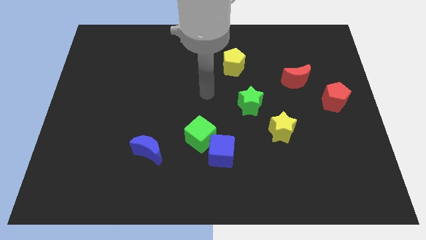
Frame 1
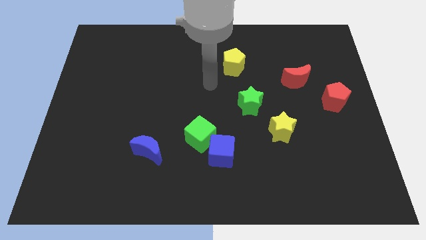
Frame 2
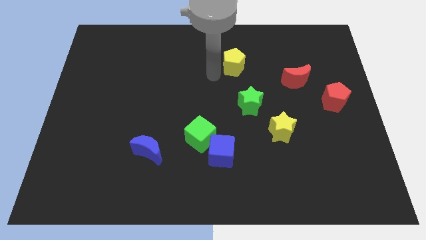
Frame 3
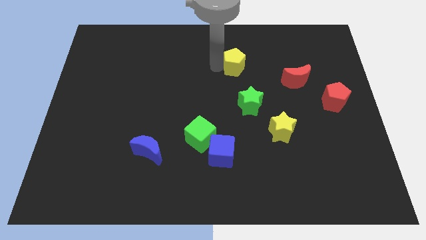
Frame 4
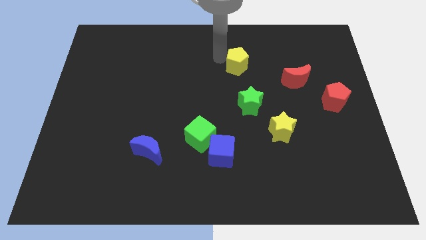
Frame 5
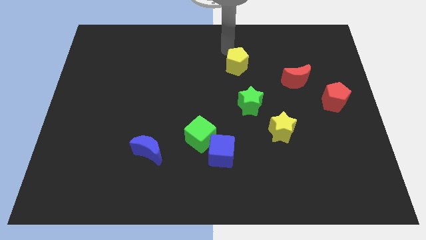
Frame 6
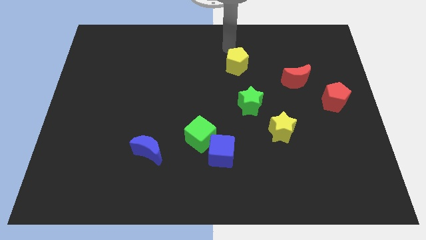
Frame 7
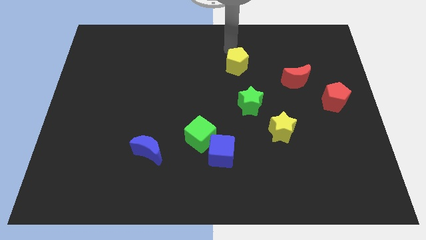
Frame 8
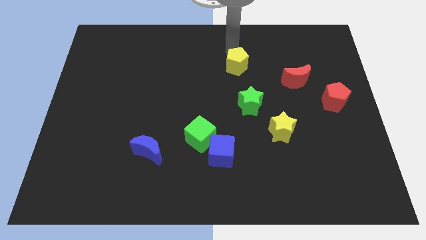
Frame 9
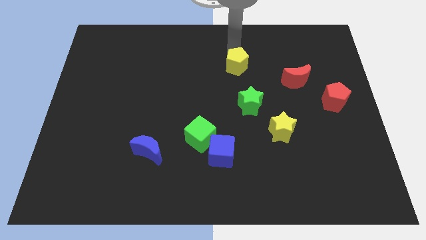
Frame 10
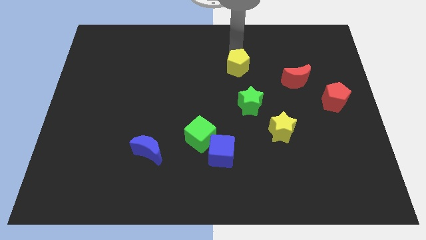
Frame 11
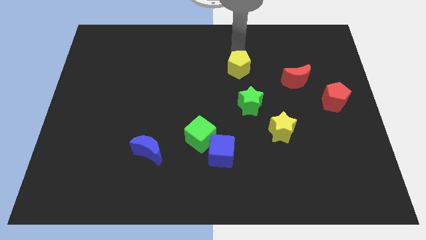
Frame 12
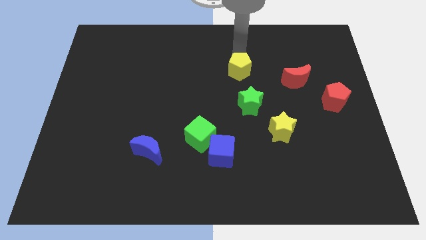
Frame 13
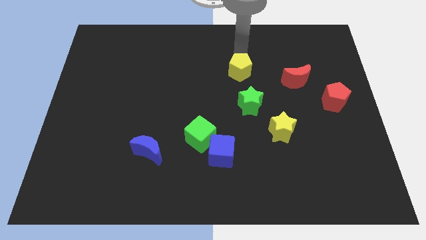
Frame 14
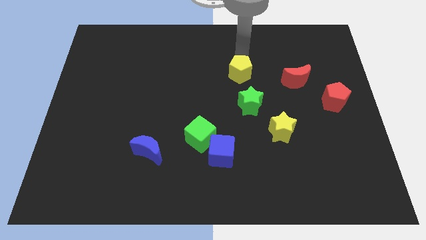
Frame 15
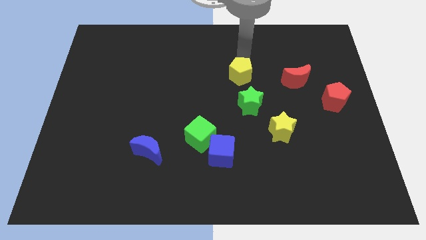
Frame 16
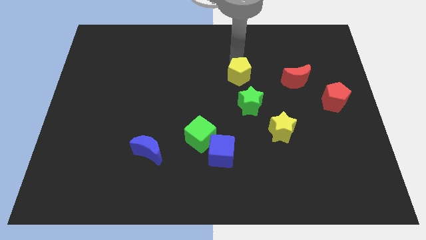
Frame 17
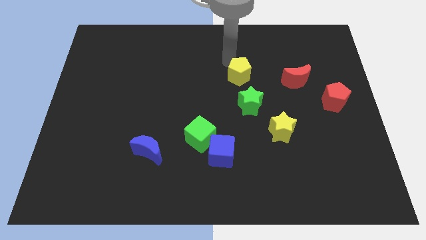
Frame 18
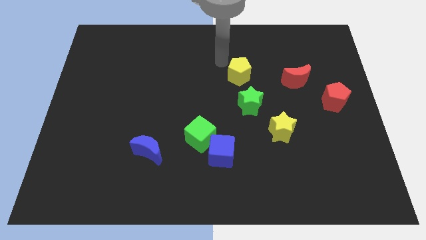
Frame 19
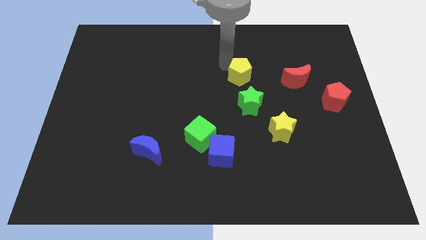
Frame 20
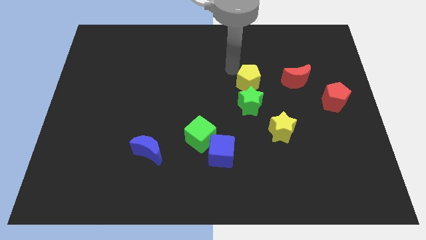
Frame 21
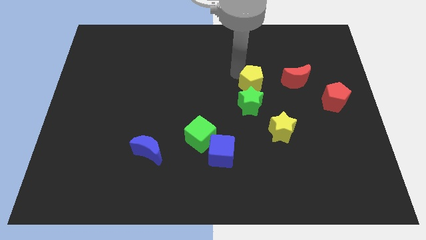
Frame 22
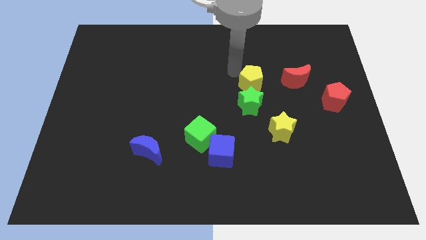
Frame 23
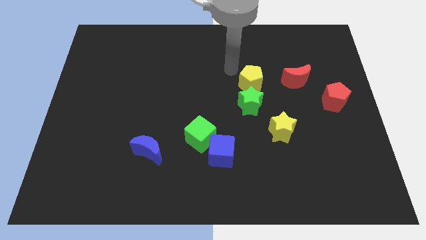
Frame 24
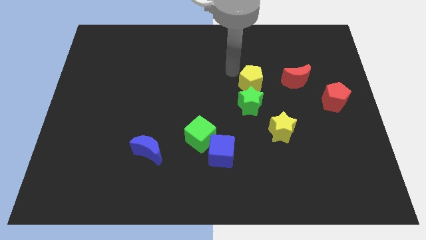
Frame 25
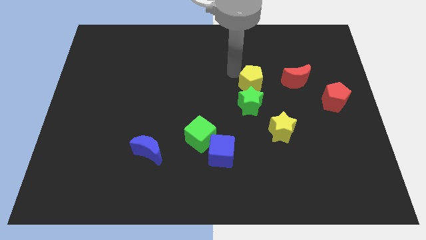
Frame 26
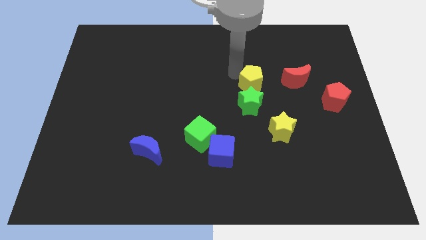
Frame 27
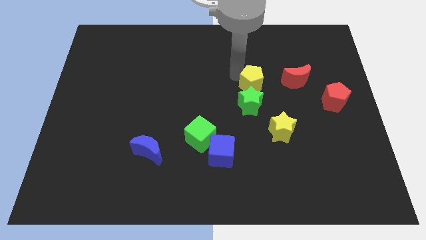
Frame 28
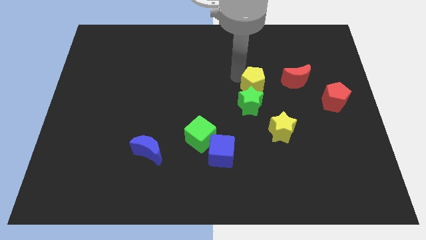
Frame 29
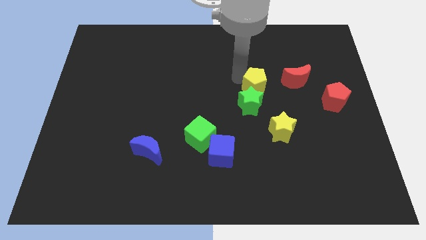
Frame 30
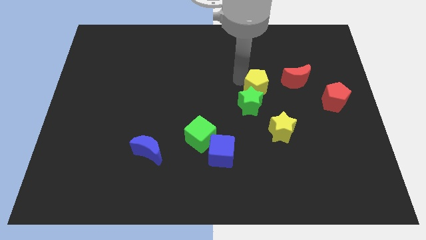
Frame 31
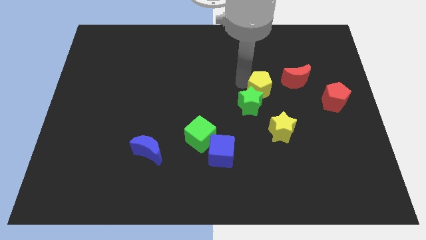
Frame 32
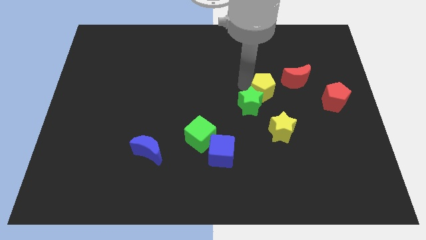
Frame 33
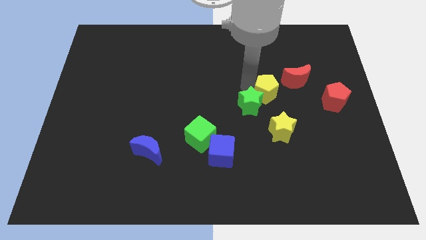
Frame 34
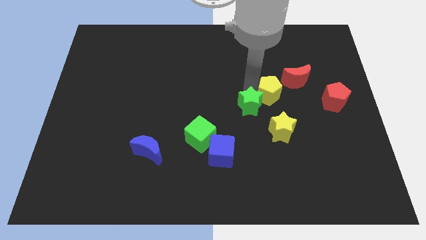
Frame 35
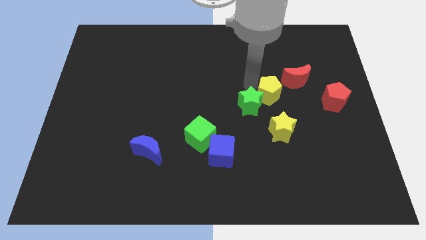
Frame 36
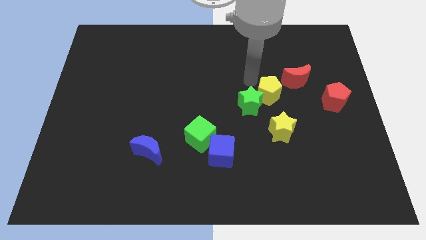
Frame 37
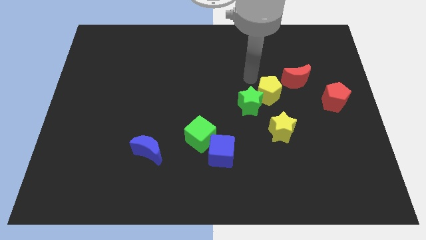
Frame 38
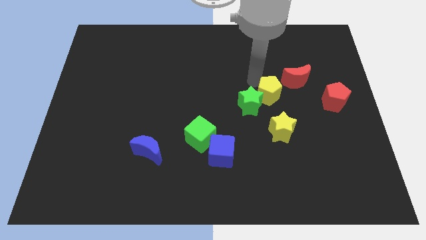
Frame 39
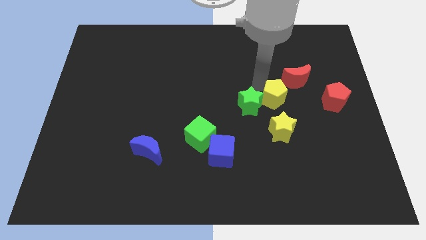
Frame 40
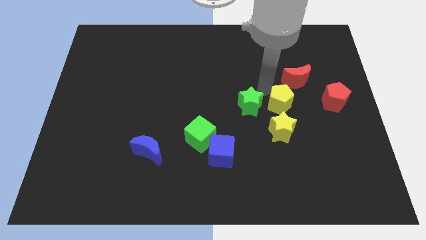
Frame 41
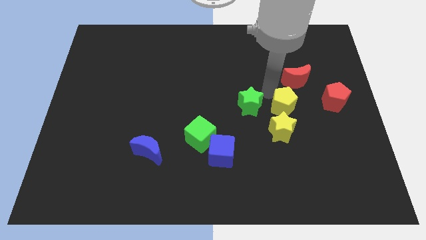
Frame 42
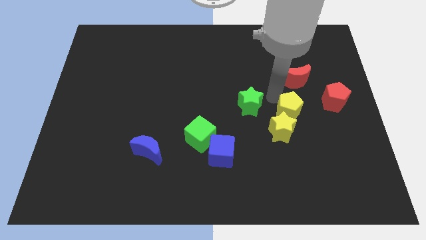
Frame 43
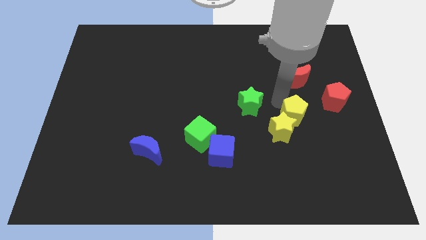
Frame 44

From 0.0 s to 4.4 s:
push the yellow pentagon down and to the right

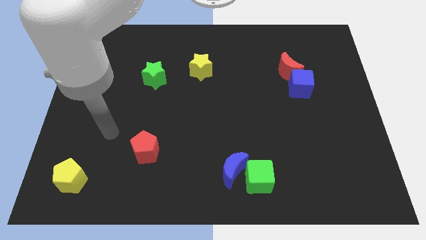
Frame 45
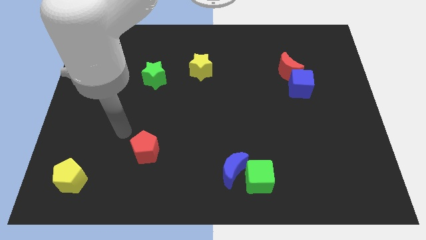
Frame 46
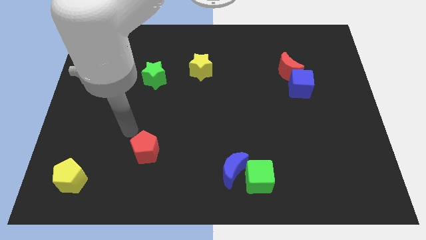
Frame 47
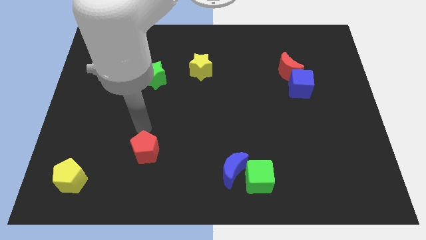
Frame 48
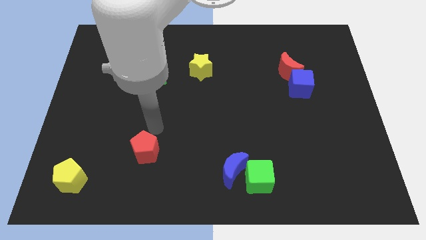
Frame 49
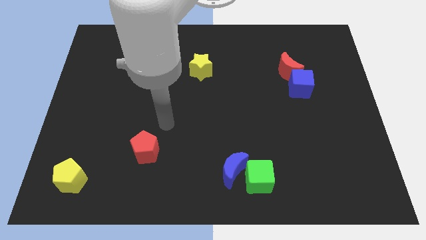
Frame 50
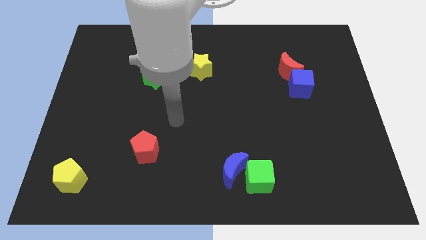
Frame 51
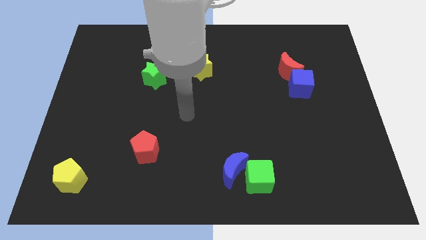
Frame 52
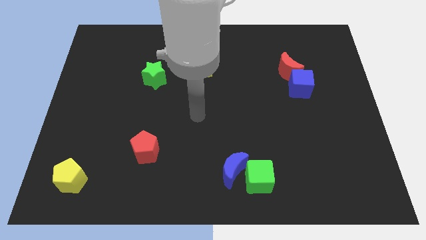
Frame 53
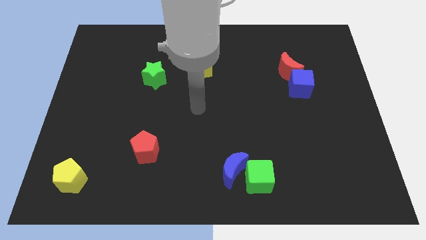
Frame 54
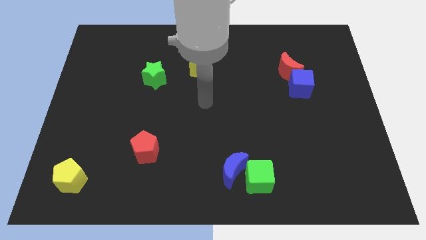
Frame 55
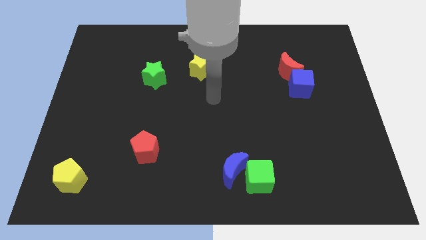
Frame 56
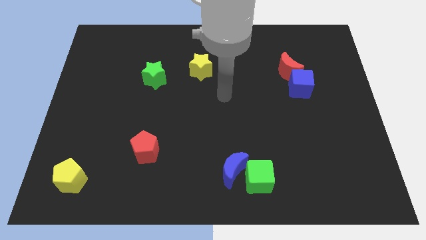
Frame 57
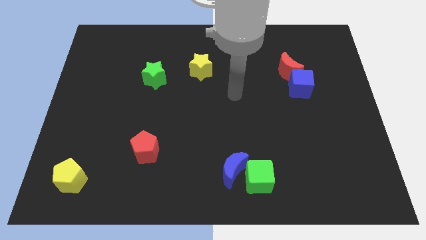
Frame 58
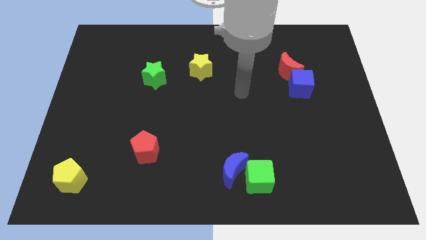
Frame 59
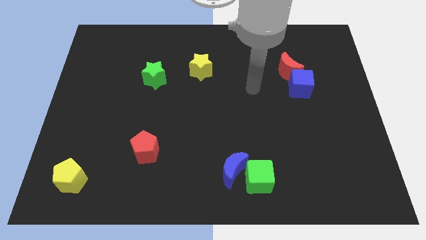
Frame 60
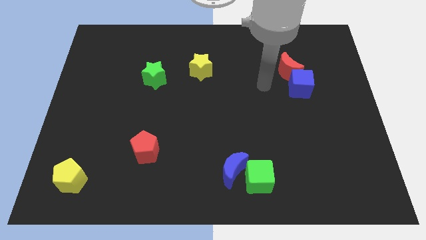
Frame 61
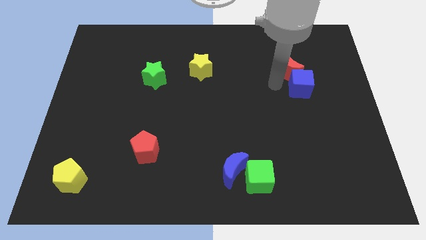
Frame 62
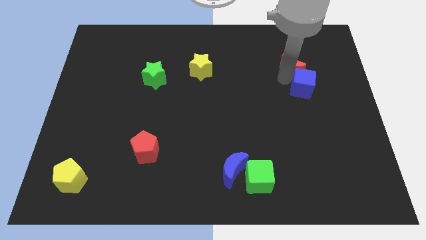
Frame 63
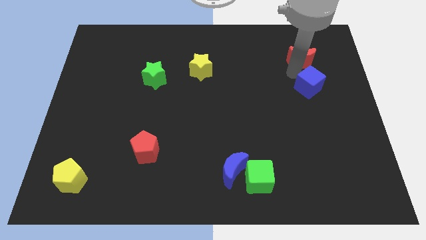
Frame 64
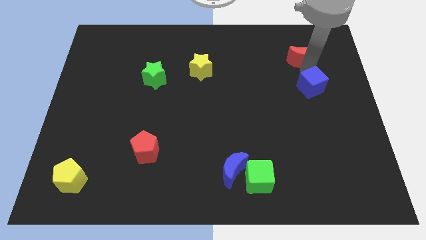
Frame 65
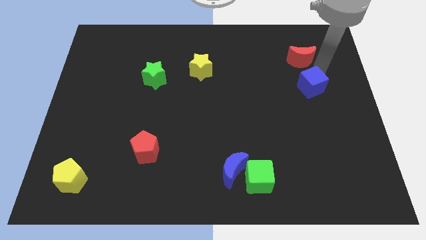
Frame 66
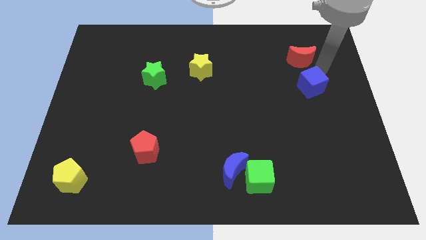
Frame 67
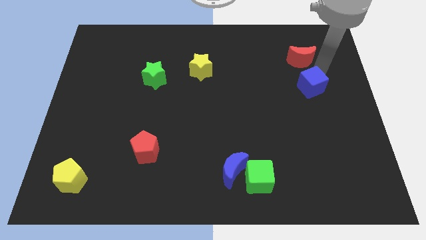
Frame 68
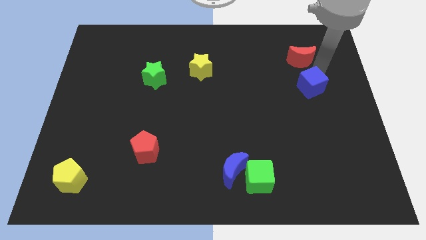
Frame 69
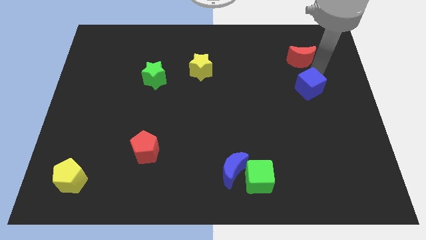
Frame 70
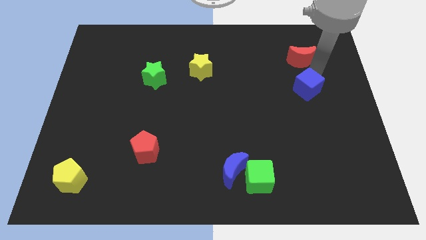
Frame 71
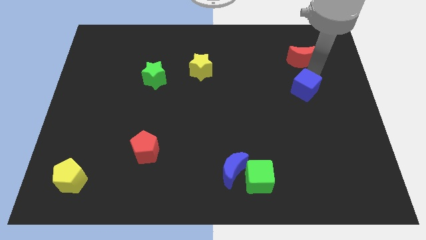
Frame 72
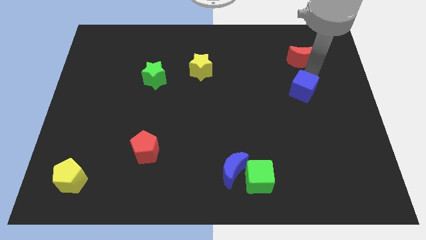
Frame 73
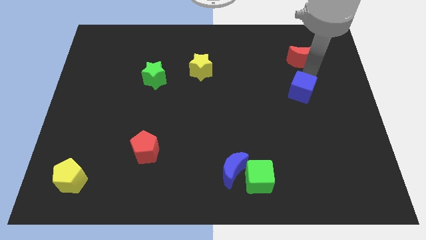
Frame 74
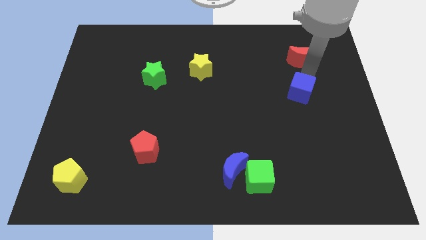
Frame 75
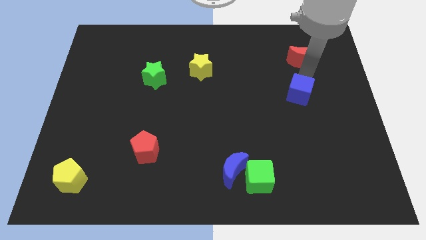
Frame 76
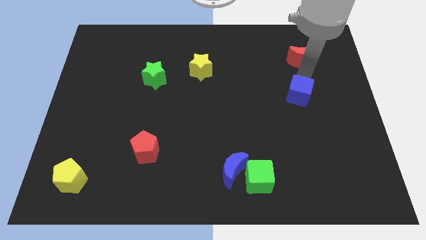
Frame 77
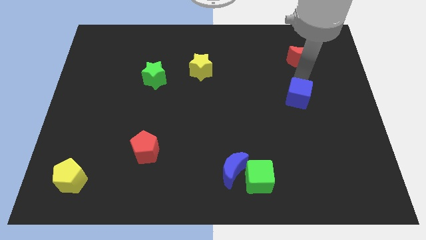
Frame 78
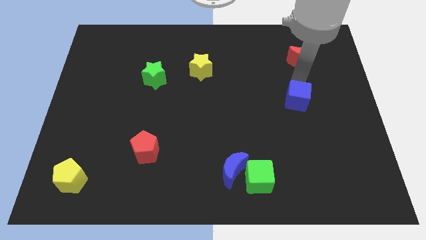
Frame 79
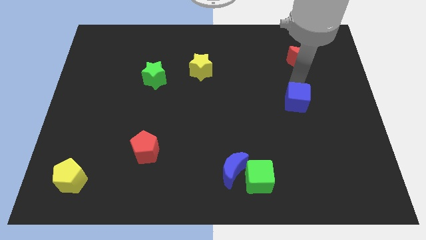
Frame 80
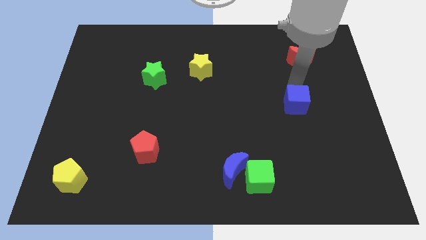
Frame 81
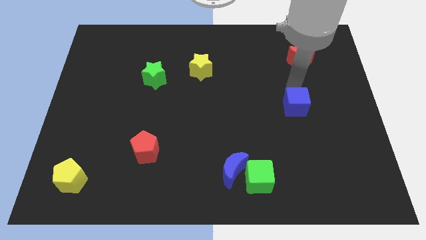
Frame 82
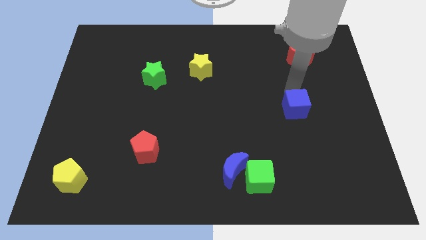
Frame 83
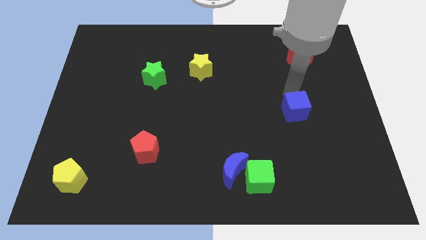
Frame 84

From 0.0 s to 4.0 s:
slightly move the blue cube down
